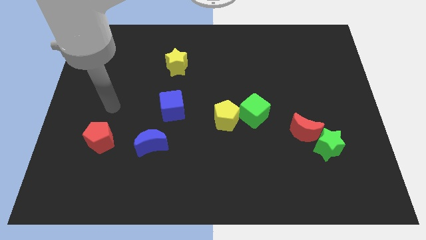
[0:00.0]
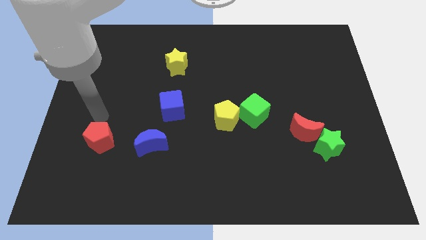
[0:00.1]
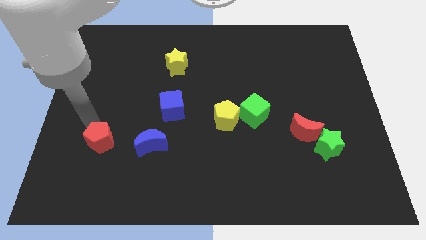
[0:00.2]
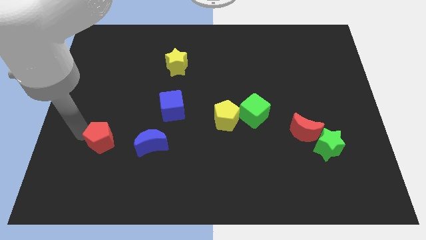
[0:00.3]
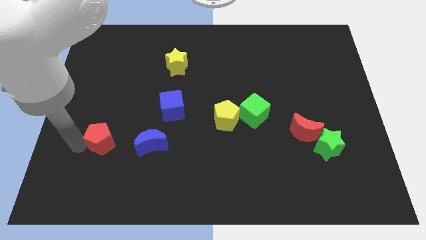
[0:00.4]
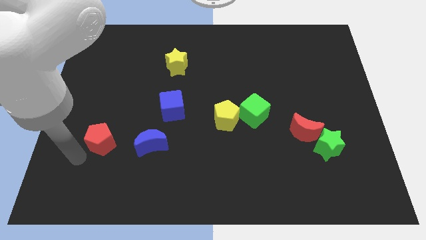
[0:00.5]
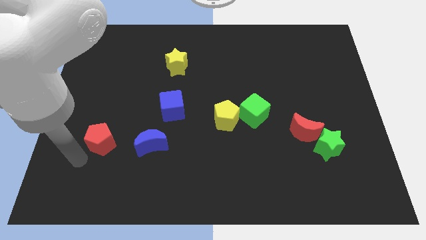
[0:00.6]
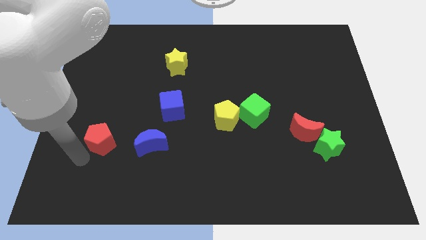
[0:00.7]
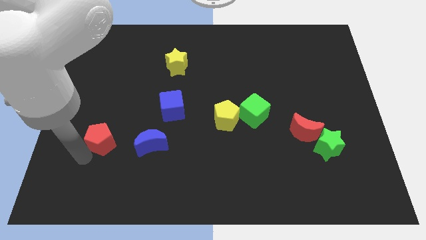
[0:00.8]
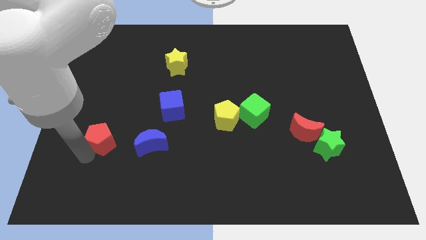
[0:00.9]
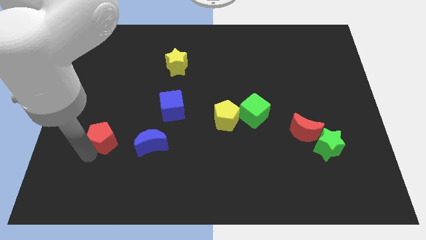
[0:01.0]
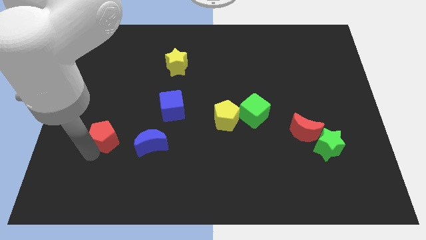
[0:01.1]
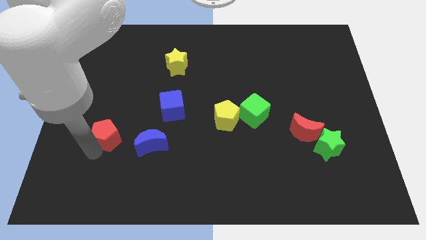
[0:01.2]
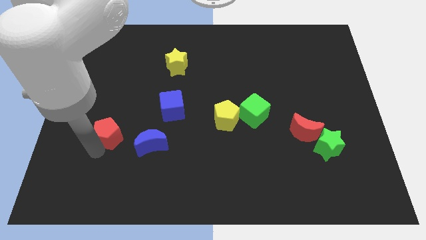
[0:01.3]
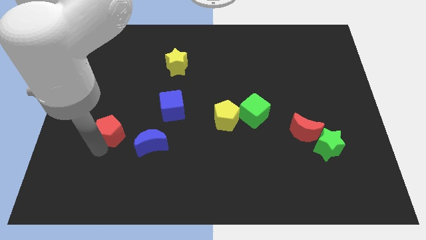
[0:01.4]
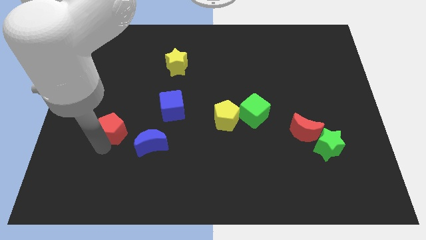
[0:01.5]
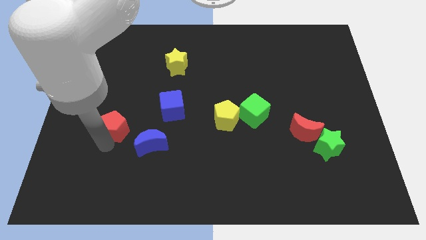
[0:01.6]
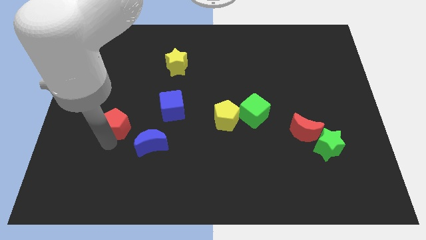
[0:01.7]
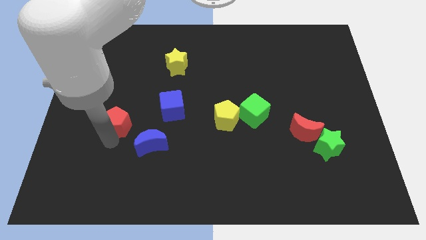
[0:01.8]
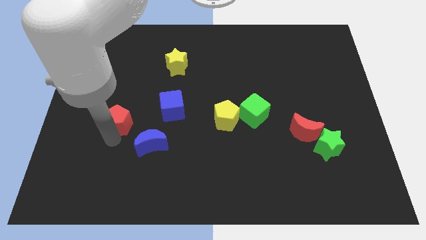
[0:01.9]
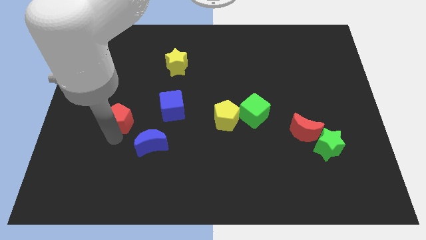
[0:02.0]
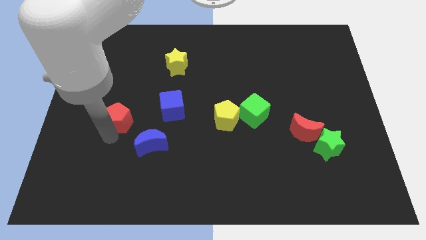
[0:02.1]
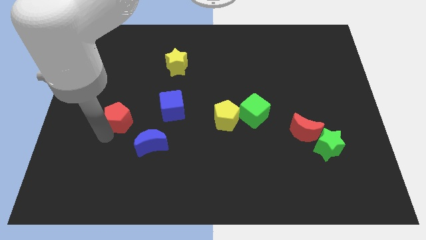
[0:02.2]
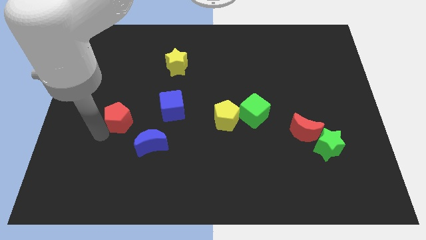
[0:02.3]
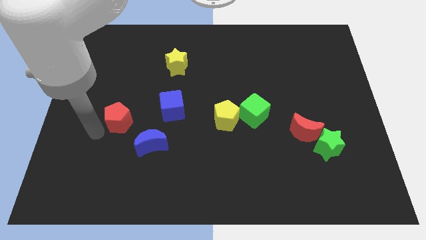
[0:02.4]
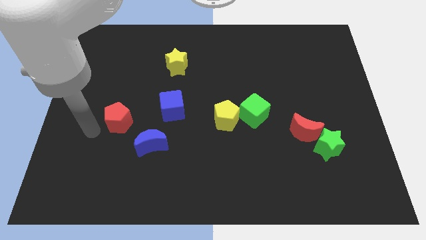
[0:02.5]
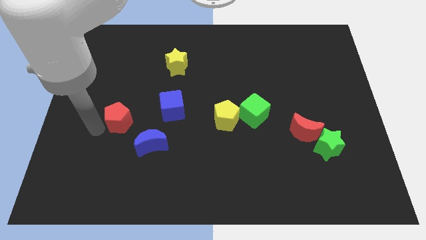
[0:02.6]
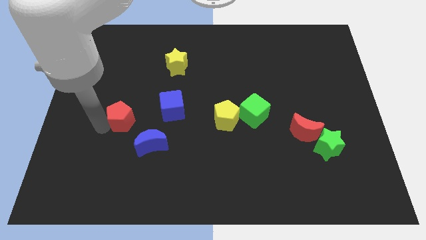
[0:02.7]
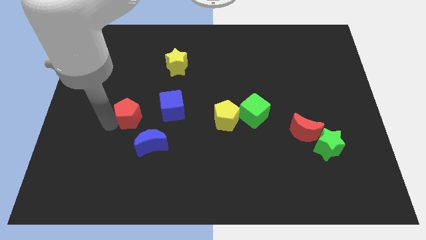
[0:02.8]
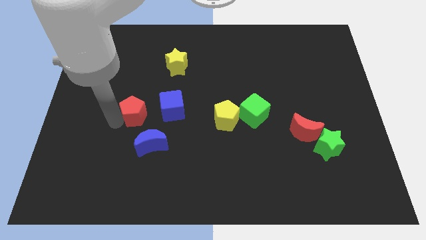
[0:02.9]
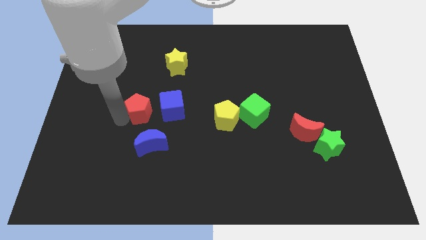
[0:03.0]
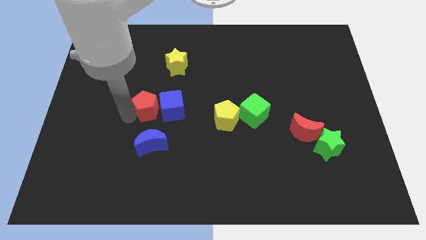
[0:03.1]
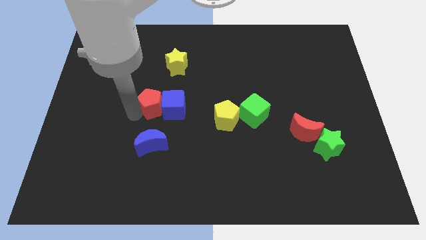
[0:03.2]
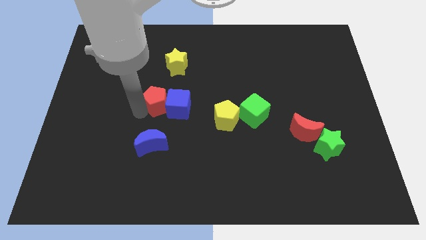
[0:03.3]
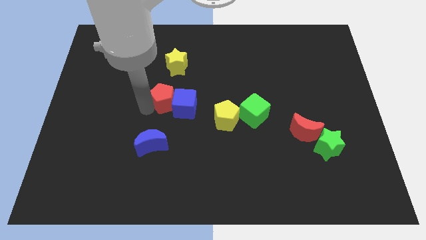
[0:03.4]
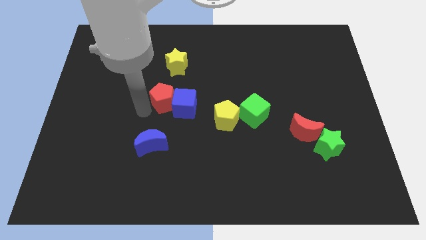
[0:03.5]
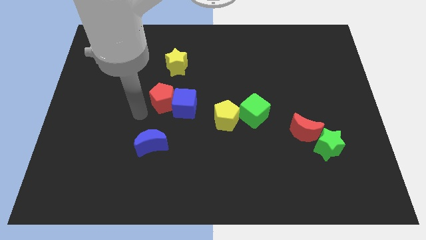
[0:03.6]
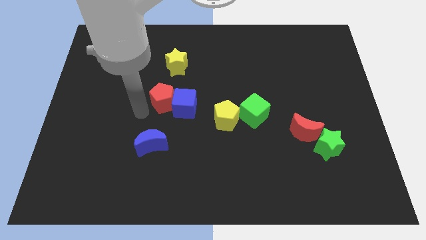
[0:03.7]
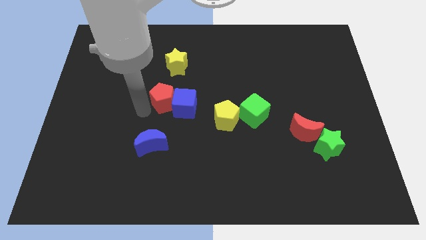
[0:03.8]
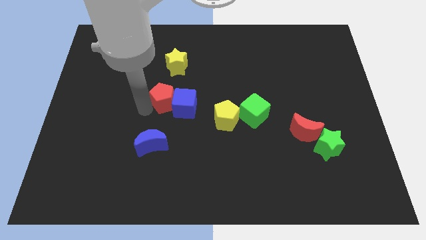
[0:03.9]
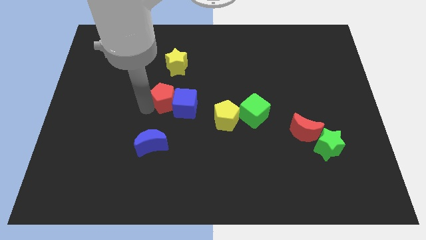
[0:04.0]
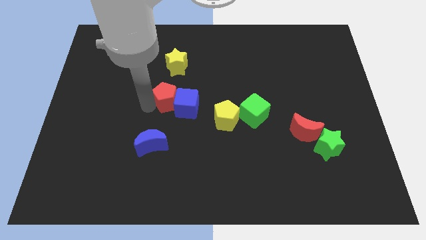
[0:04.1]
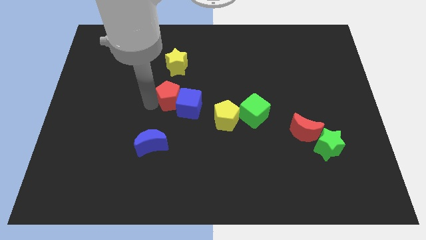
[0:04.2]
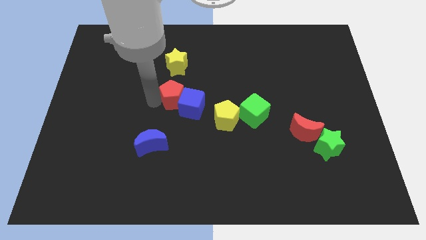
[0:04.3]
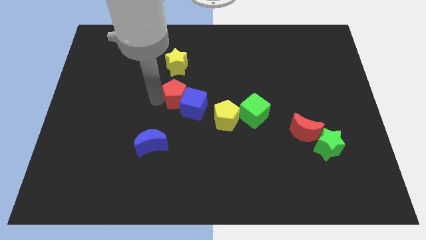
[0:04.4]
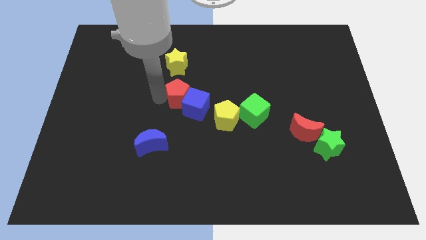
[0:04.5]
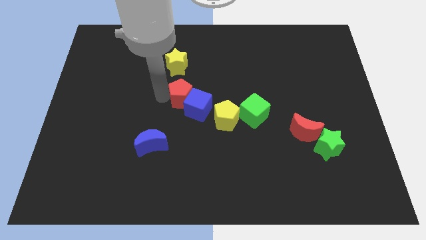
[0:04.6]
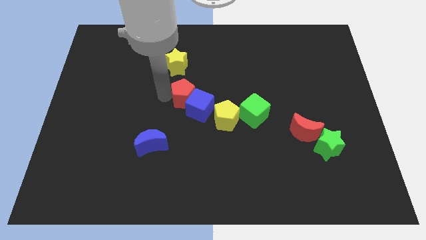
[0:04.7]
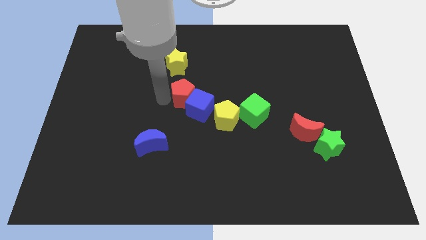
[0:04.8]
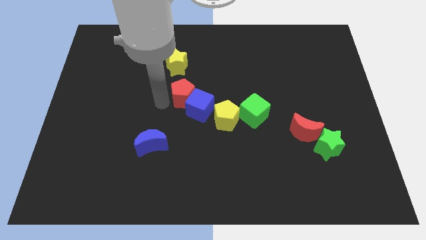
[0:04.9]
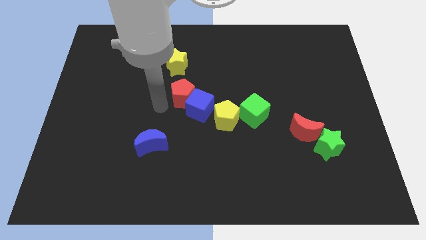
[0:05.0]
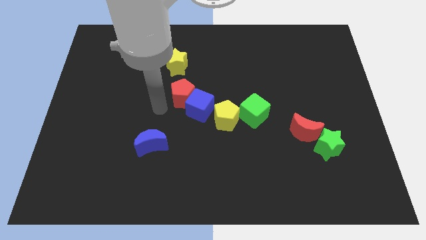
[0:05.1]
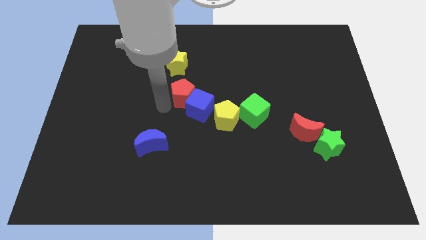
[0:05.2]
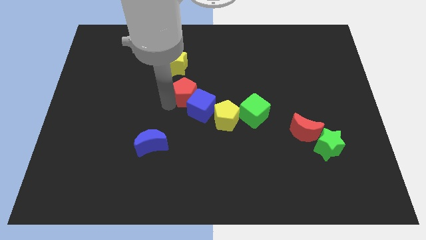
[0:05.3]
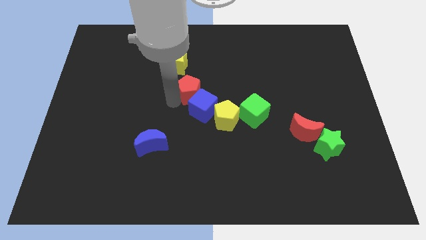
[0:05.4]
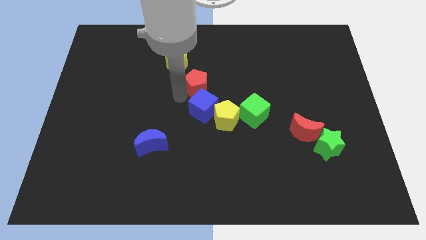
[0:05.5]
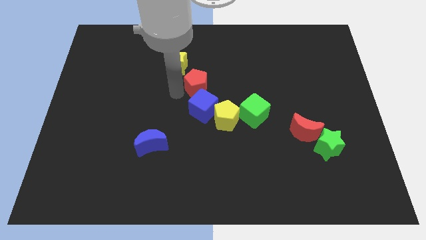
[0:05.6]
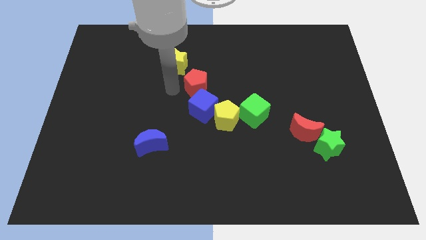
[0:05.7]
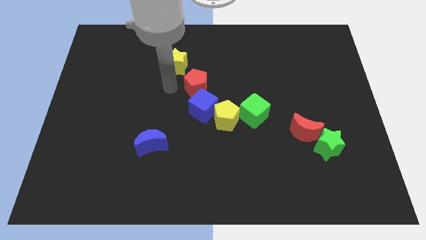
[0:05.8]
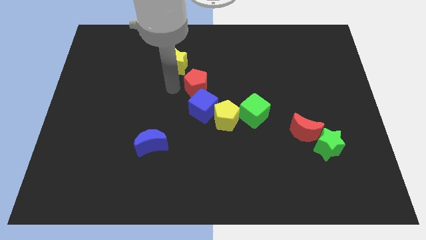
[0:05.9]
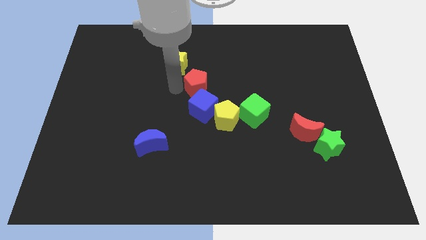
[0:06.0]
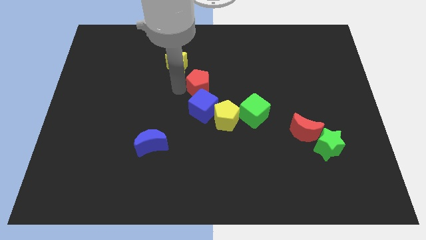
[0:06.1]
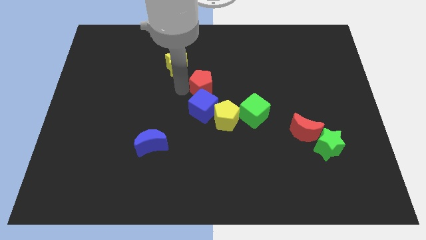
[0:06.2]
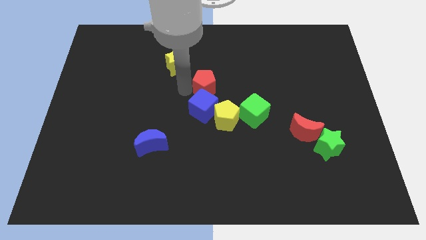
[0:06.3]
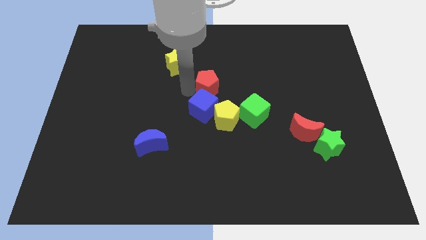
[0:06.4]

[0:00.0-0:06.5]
push the red pentagon above the yellow pentagon
